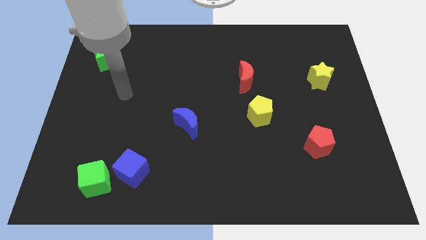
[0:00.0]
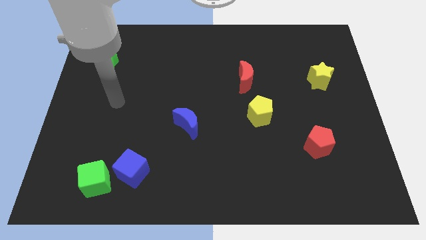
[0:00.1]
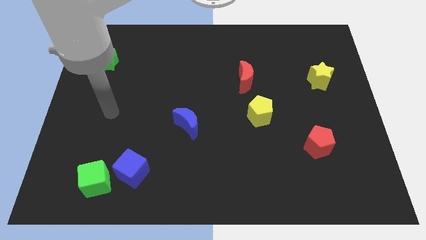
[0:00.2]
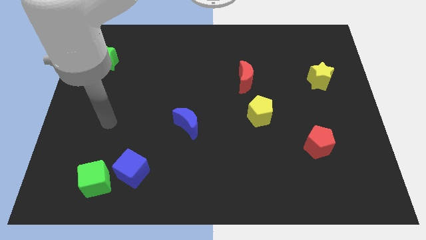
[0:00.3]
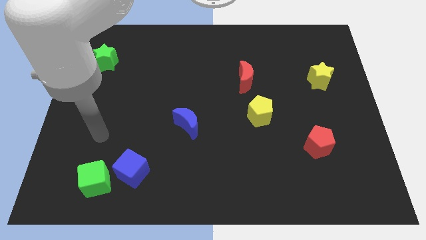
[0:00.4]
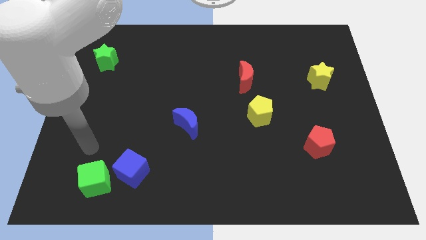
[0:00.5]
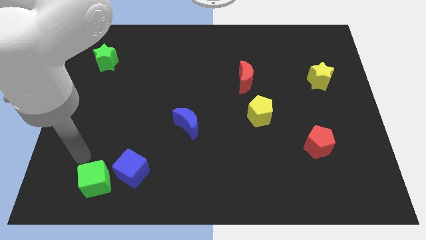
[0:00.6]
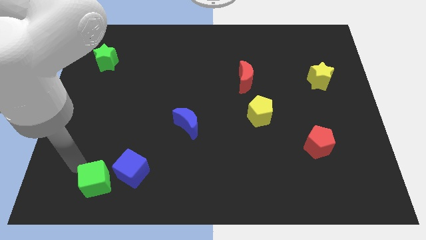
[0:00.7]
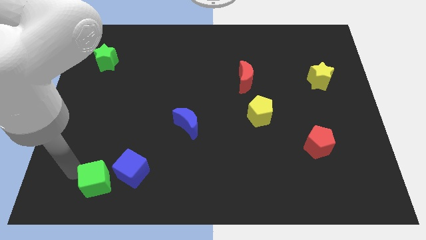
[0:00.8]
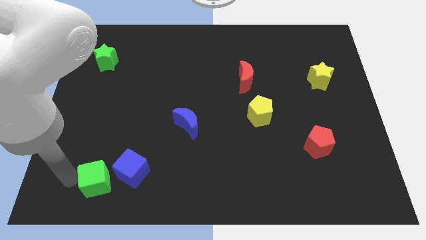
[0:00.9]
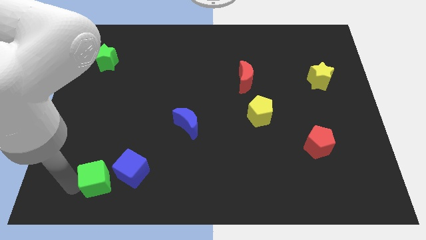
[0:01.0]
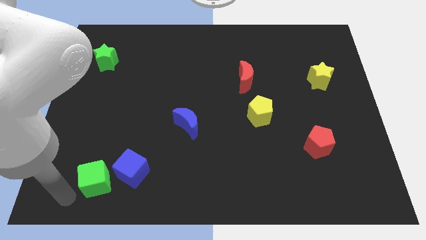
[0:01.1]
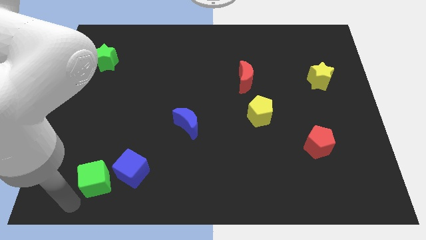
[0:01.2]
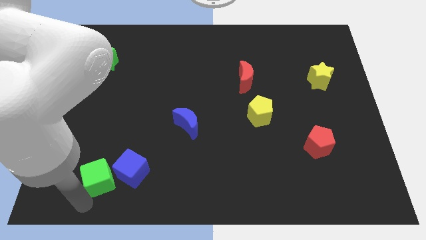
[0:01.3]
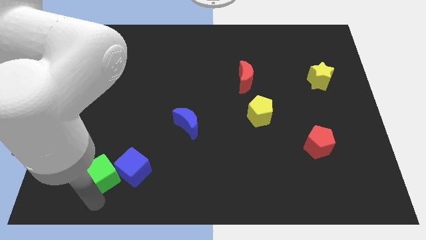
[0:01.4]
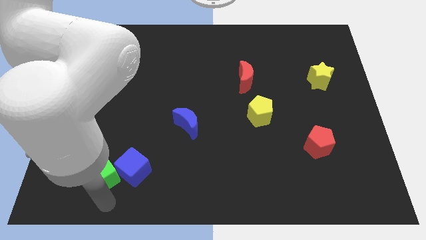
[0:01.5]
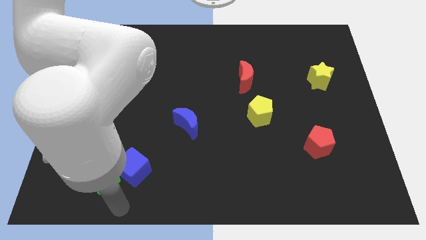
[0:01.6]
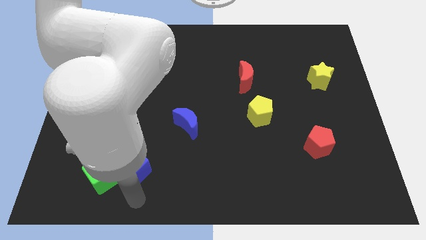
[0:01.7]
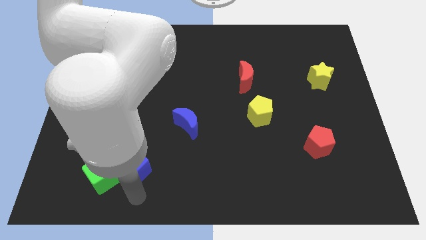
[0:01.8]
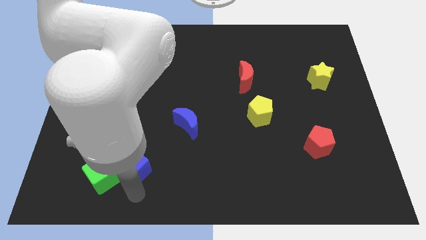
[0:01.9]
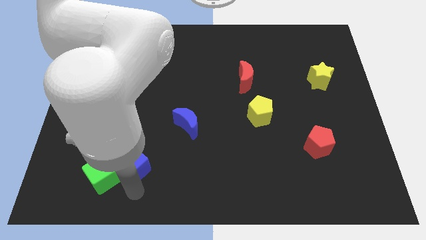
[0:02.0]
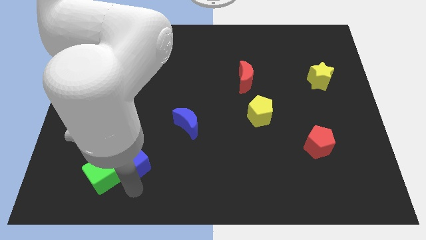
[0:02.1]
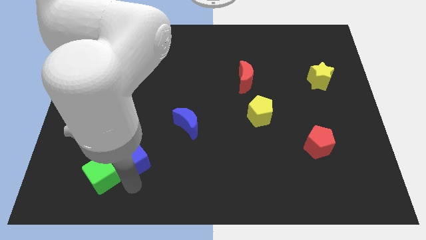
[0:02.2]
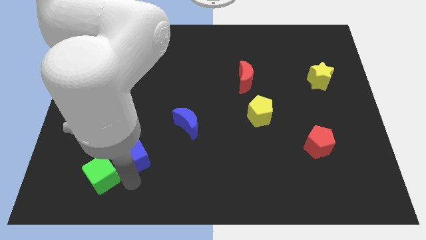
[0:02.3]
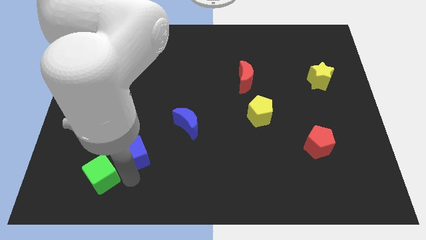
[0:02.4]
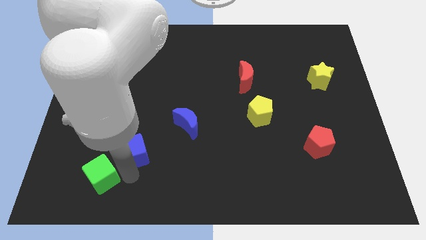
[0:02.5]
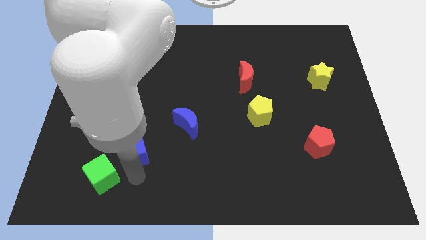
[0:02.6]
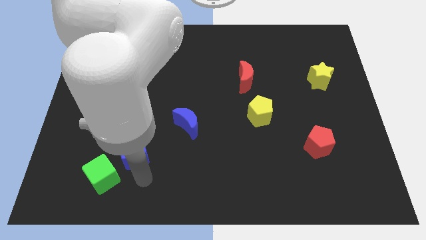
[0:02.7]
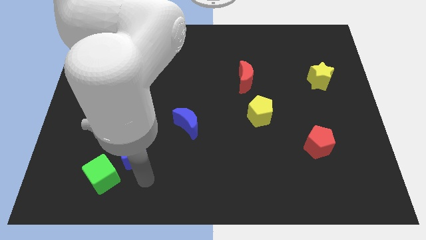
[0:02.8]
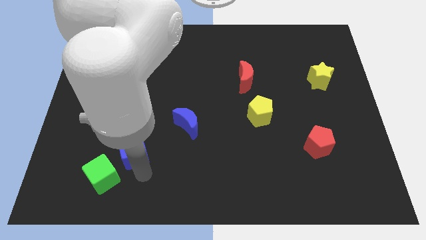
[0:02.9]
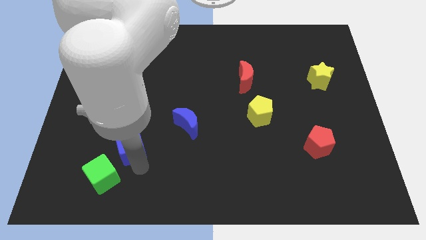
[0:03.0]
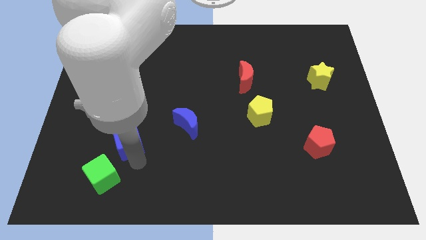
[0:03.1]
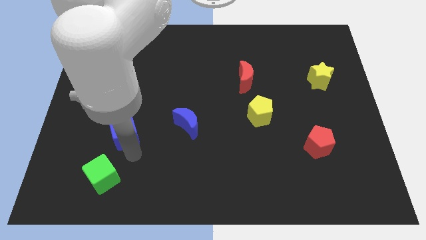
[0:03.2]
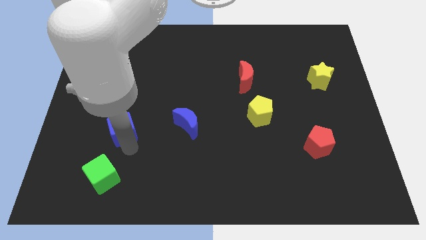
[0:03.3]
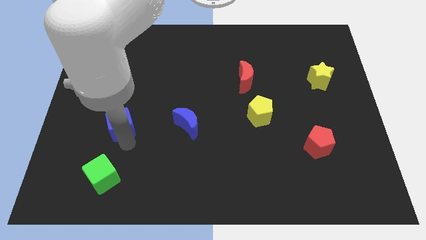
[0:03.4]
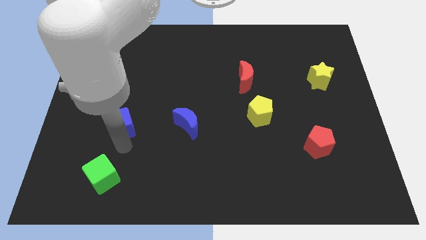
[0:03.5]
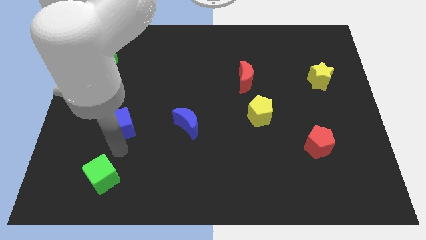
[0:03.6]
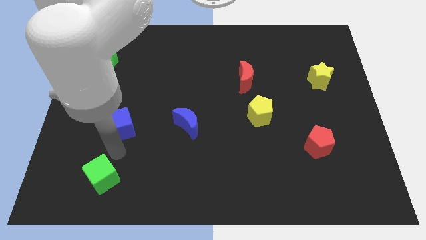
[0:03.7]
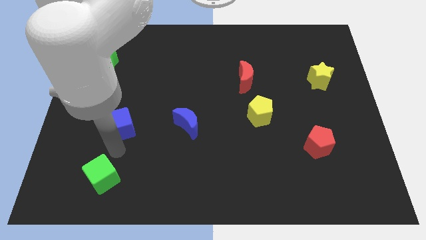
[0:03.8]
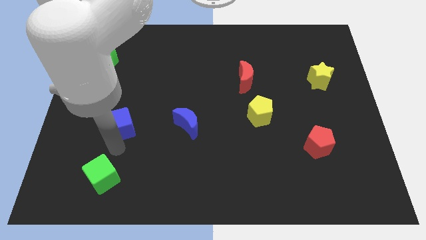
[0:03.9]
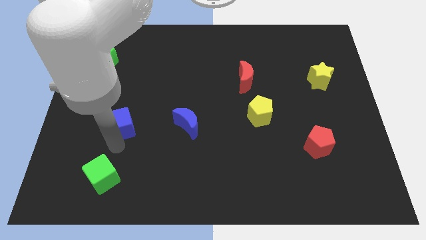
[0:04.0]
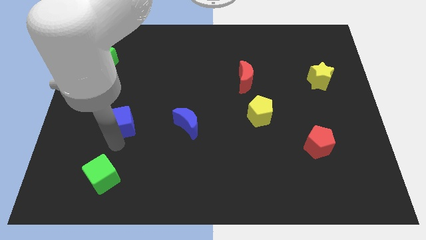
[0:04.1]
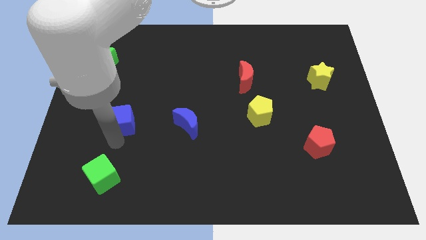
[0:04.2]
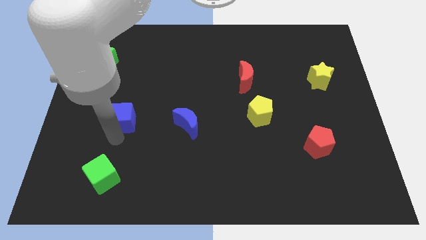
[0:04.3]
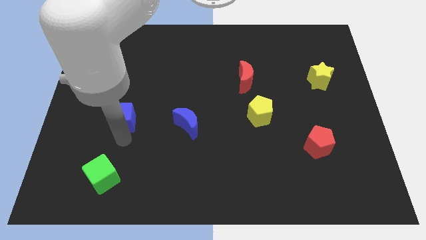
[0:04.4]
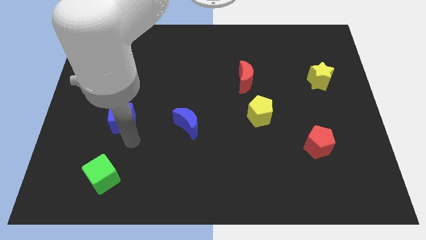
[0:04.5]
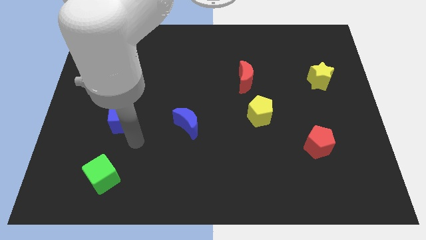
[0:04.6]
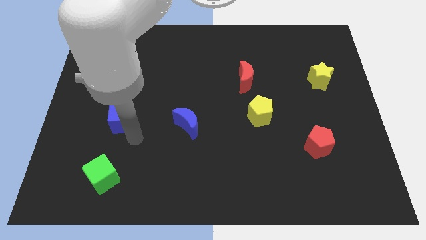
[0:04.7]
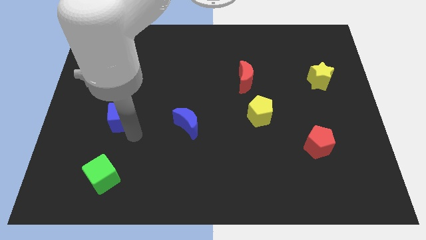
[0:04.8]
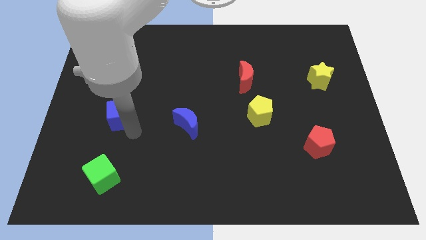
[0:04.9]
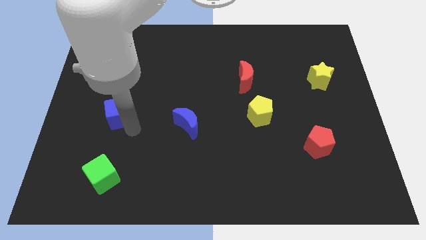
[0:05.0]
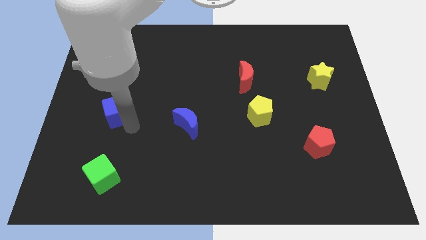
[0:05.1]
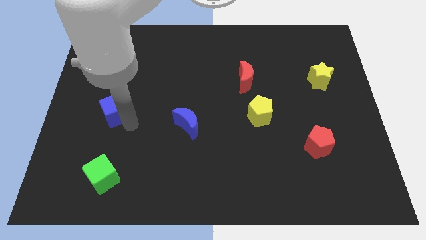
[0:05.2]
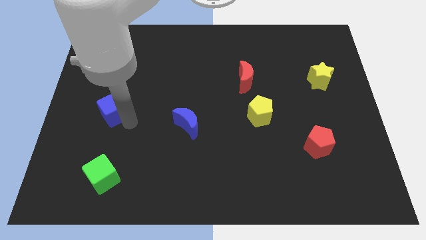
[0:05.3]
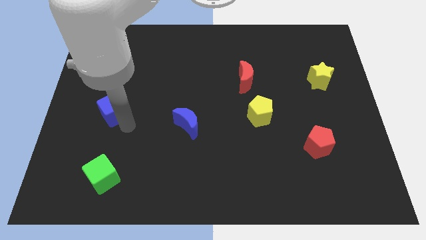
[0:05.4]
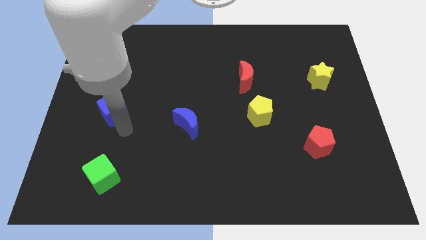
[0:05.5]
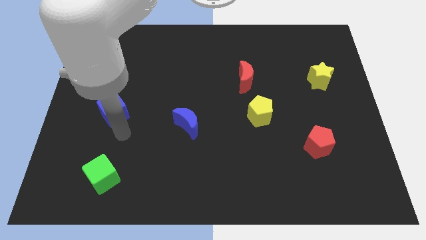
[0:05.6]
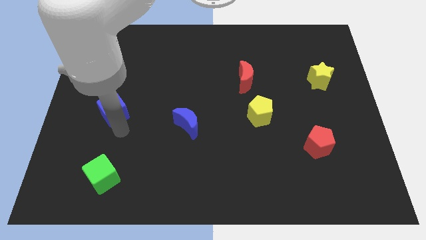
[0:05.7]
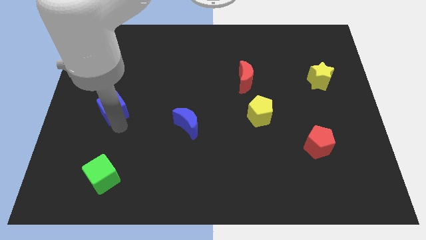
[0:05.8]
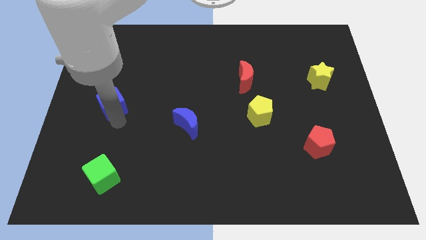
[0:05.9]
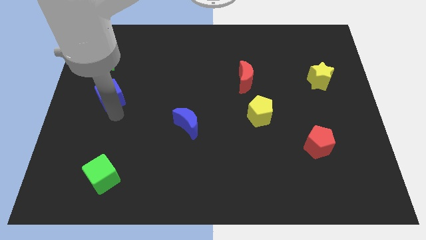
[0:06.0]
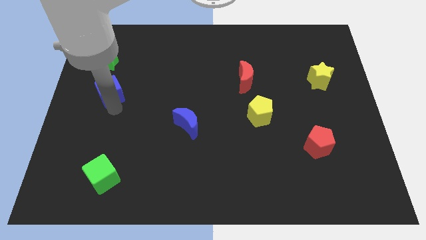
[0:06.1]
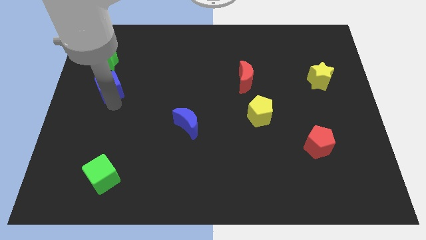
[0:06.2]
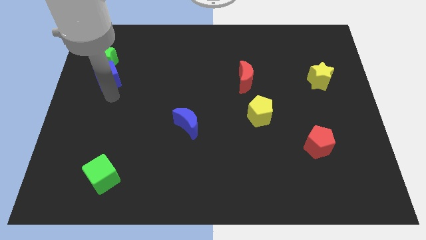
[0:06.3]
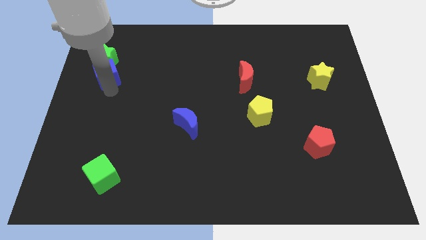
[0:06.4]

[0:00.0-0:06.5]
put the blue cube to the green star
